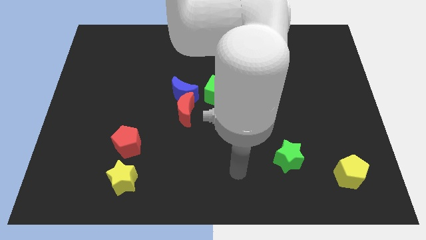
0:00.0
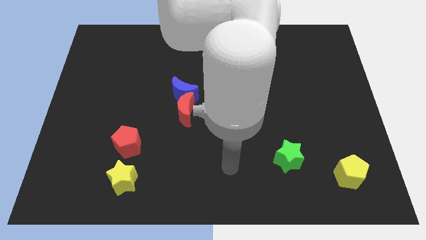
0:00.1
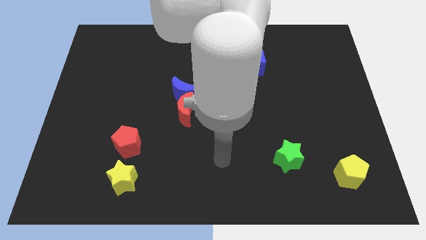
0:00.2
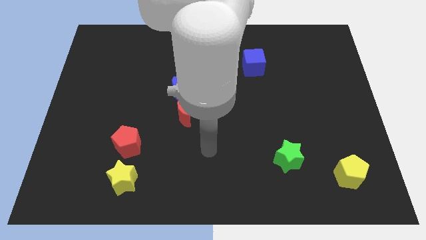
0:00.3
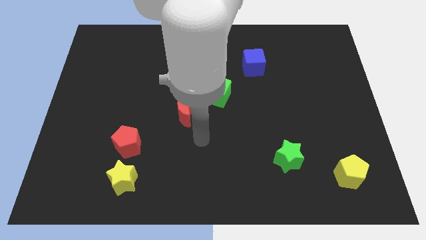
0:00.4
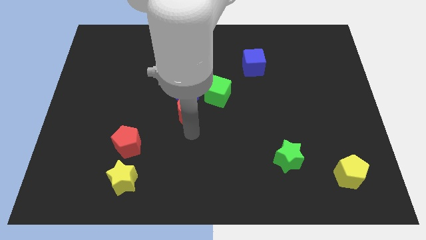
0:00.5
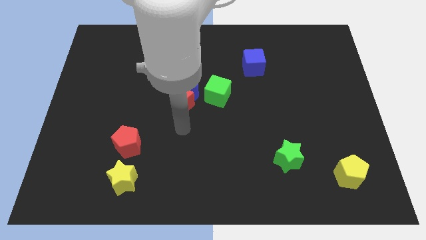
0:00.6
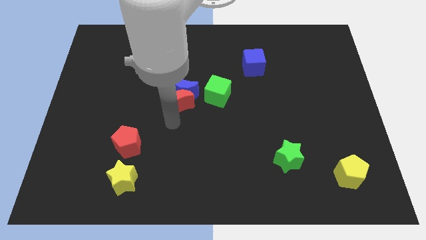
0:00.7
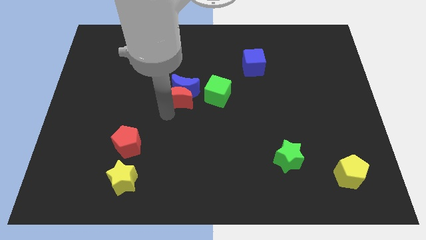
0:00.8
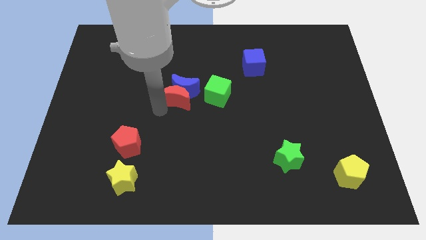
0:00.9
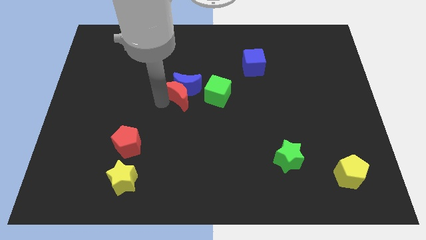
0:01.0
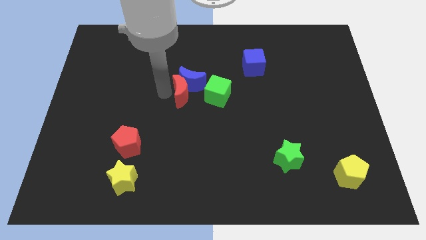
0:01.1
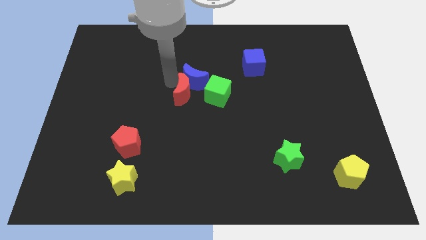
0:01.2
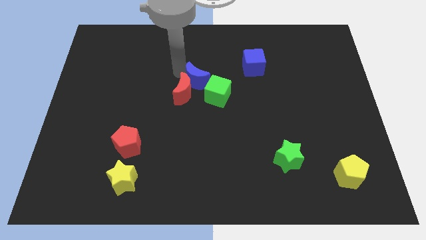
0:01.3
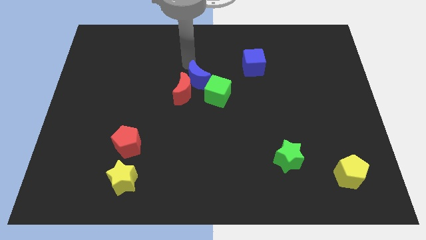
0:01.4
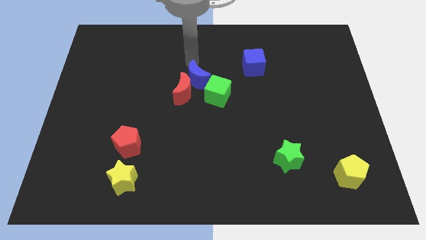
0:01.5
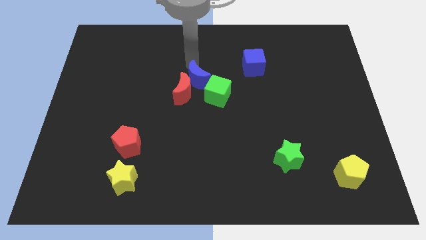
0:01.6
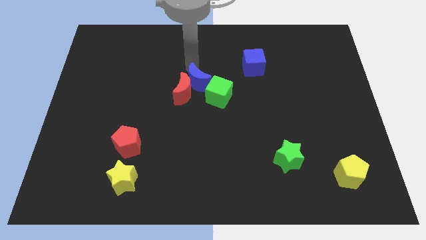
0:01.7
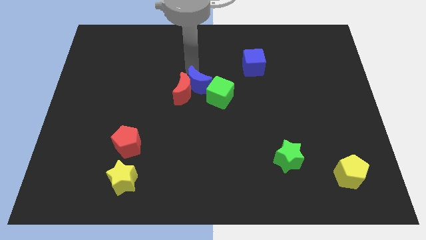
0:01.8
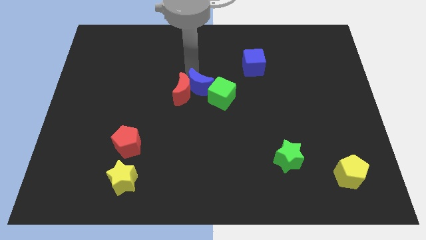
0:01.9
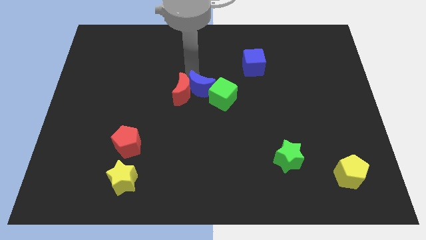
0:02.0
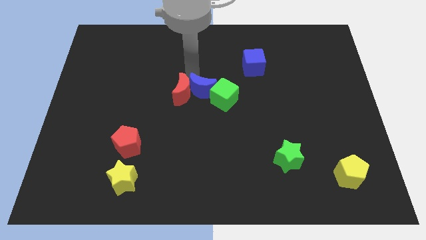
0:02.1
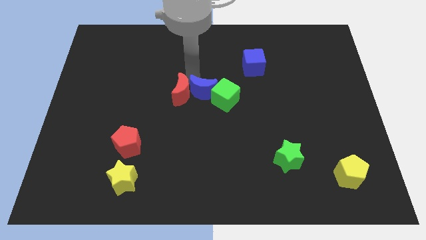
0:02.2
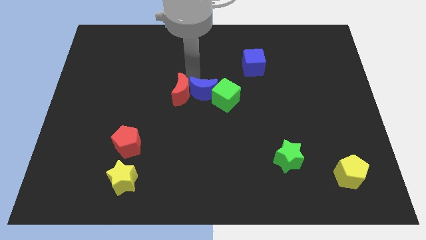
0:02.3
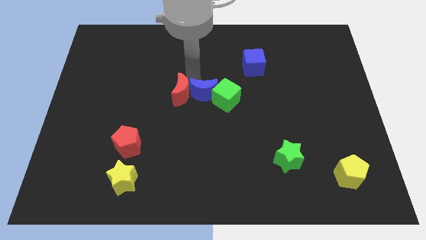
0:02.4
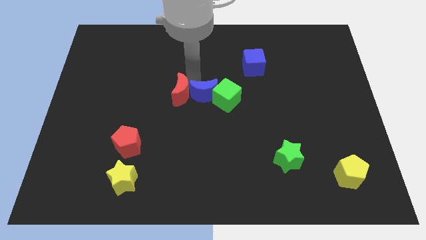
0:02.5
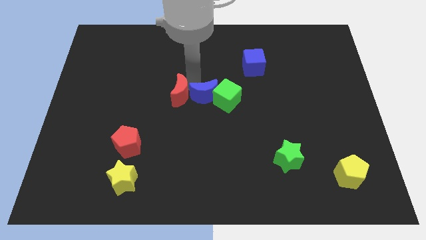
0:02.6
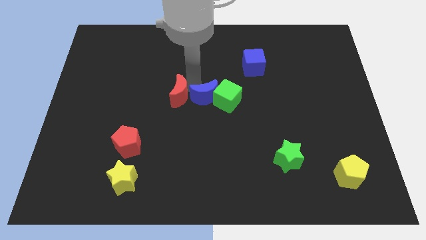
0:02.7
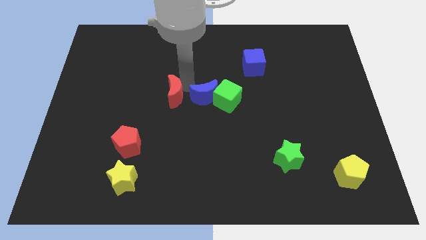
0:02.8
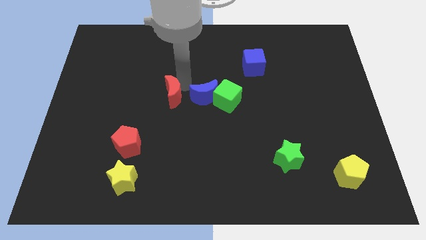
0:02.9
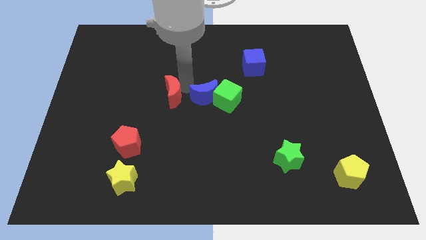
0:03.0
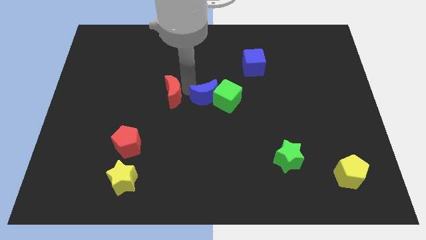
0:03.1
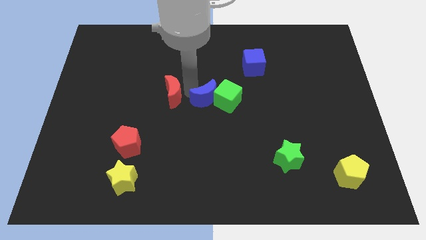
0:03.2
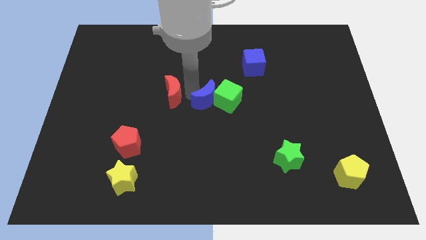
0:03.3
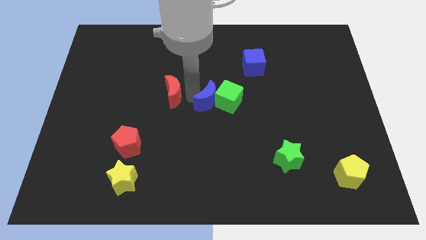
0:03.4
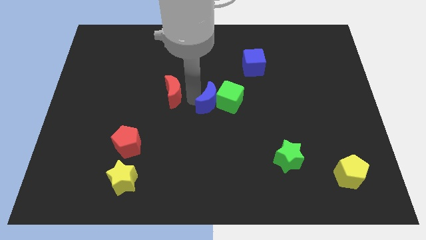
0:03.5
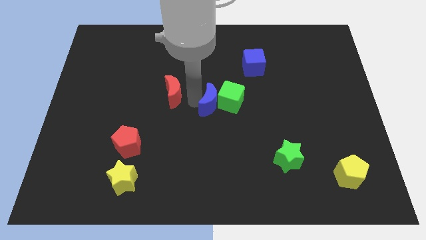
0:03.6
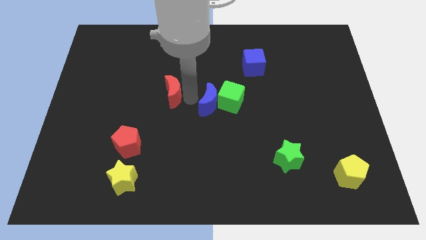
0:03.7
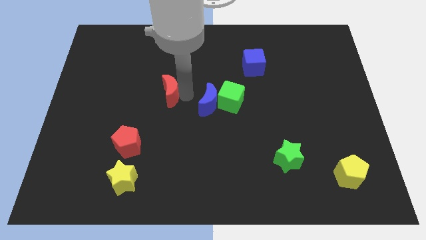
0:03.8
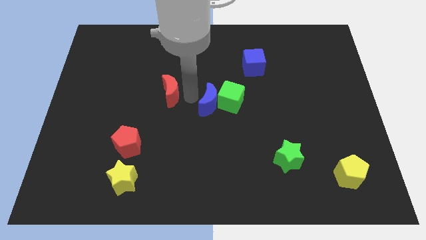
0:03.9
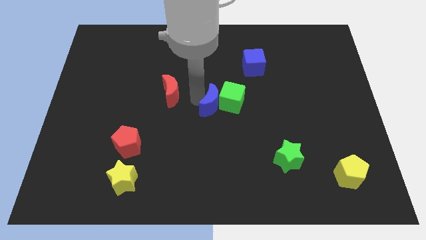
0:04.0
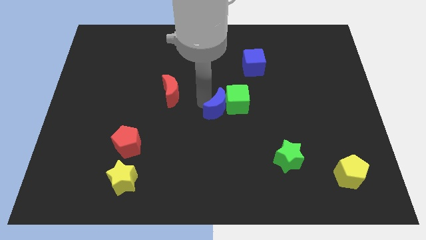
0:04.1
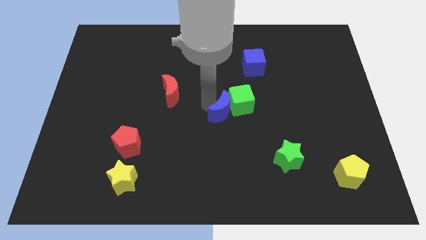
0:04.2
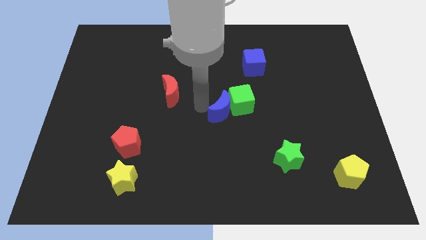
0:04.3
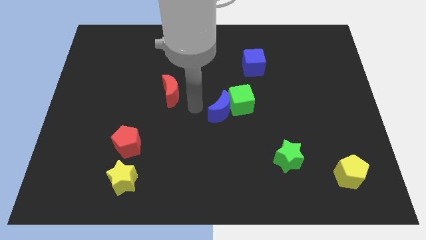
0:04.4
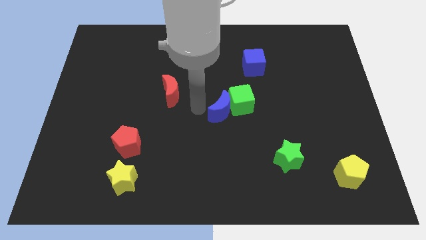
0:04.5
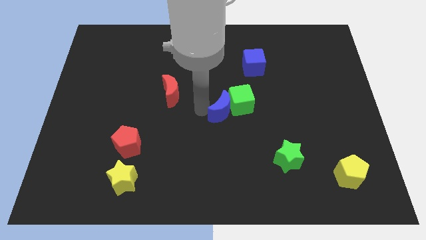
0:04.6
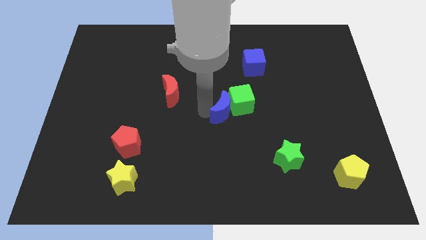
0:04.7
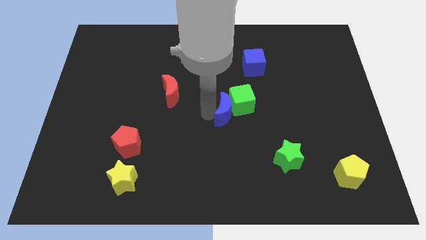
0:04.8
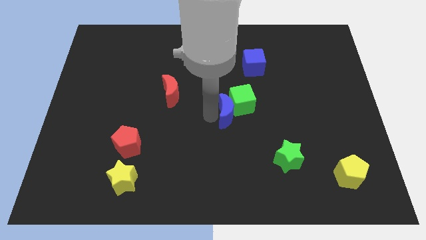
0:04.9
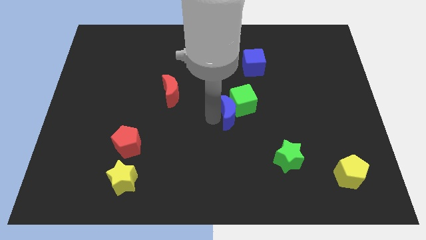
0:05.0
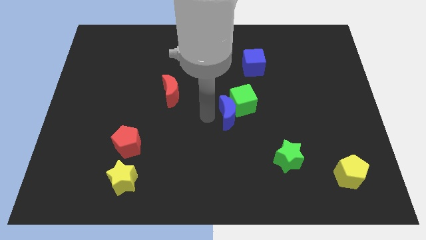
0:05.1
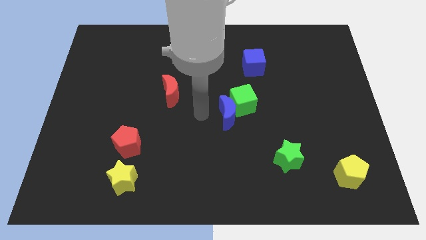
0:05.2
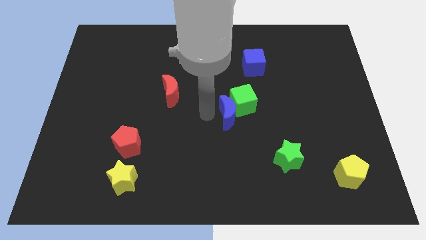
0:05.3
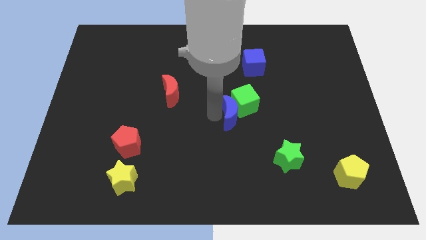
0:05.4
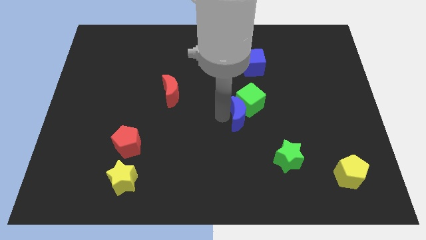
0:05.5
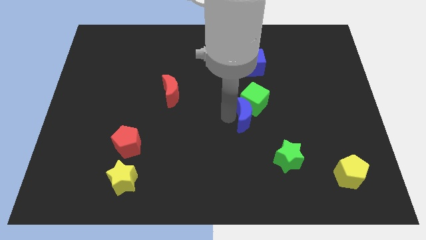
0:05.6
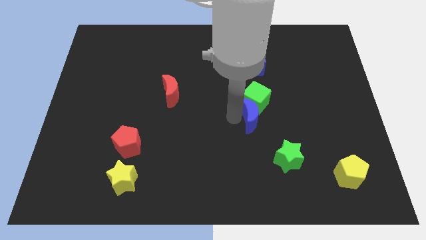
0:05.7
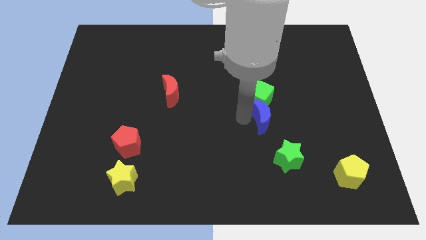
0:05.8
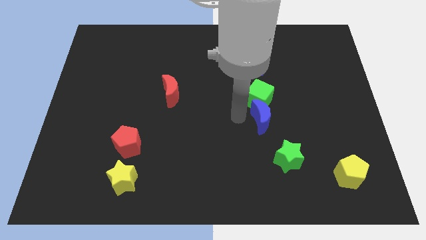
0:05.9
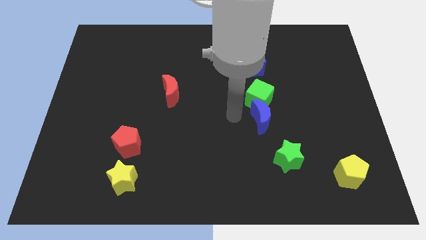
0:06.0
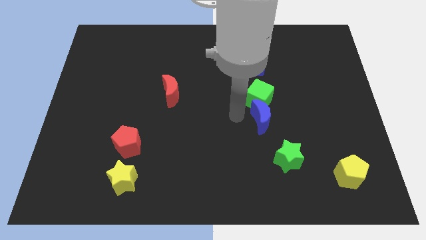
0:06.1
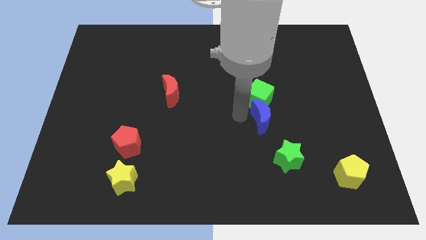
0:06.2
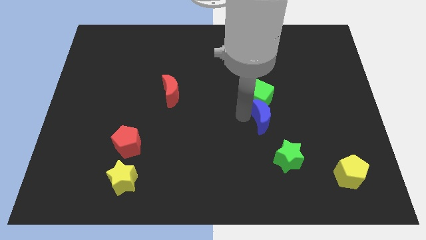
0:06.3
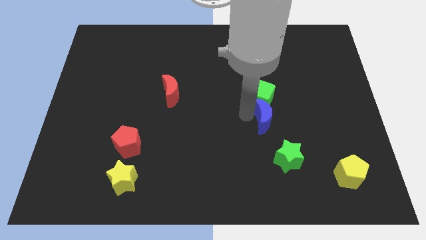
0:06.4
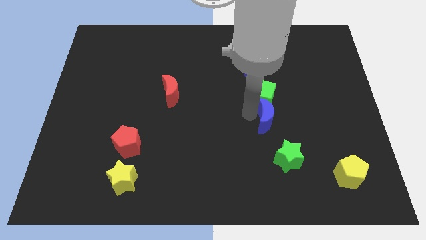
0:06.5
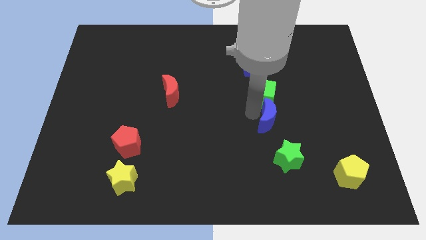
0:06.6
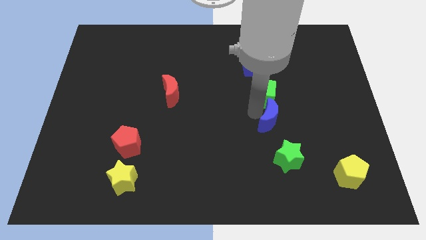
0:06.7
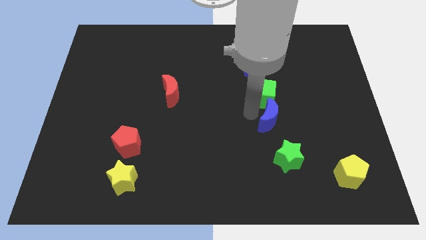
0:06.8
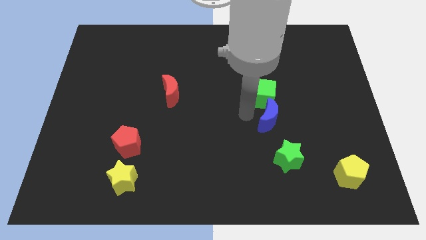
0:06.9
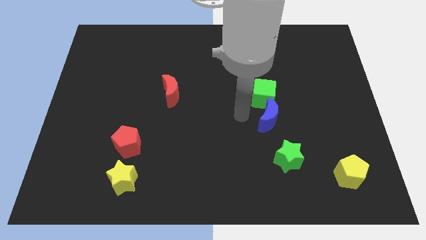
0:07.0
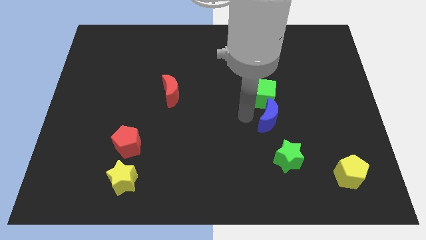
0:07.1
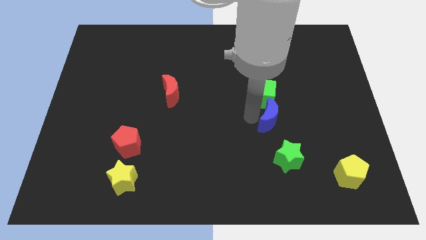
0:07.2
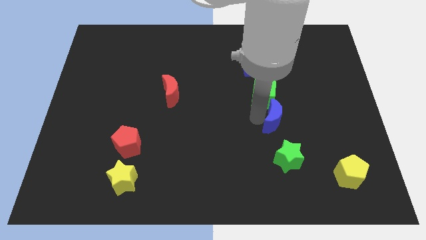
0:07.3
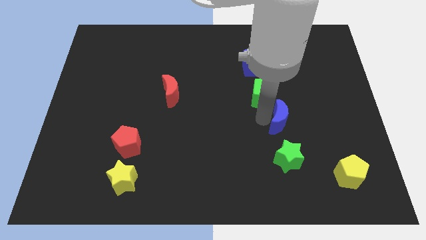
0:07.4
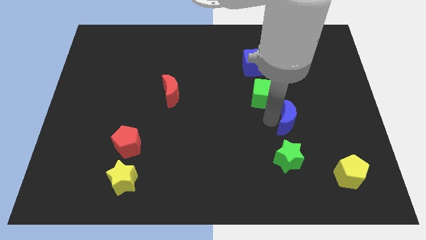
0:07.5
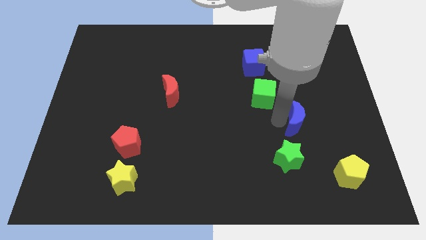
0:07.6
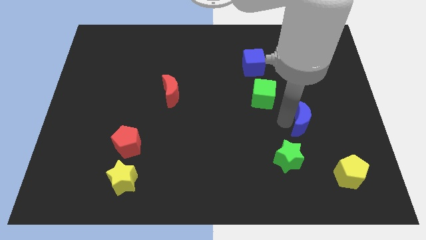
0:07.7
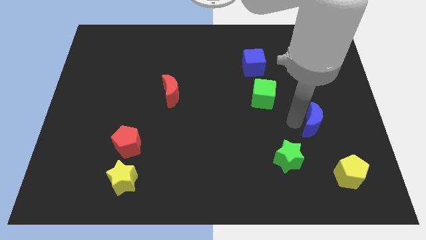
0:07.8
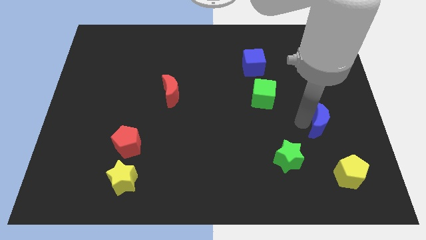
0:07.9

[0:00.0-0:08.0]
put the blue moon above the yellow pentagon
